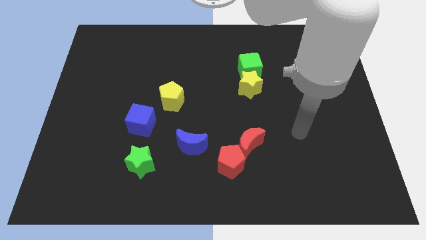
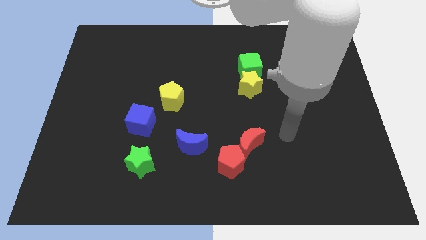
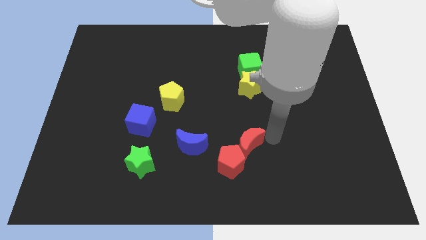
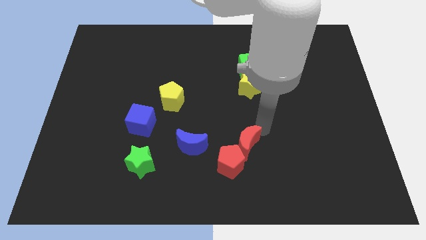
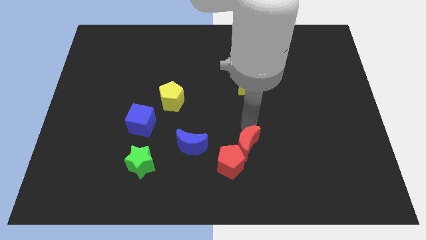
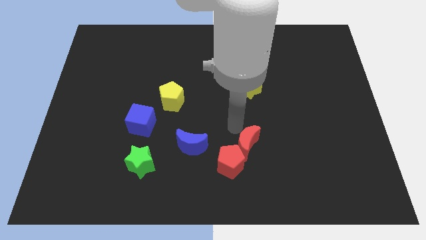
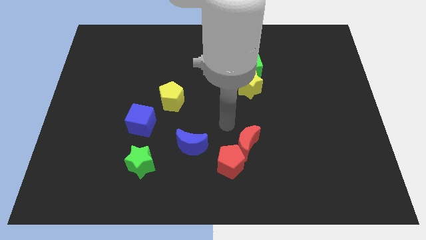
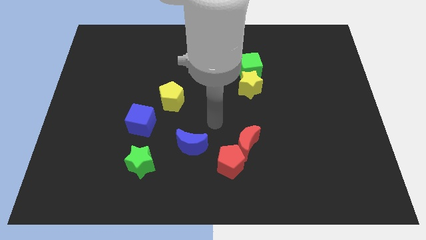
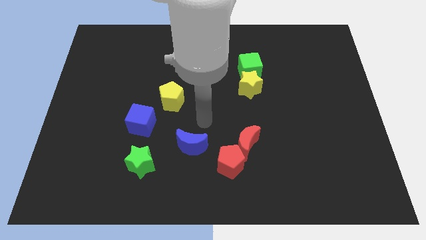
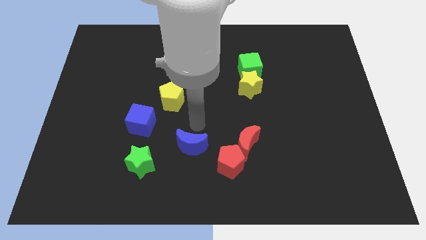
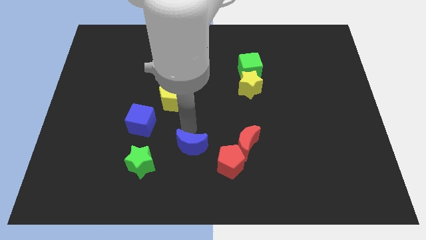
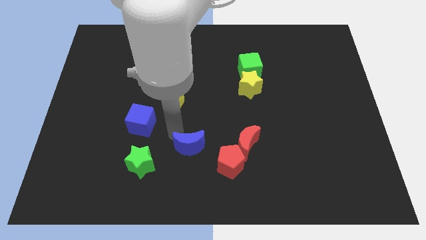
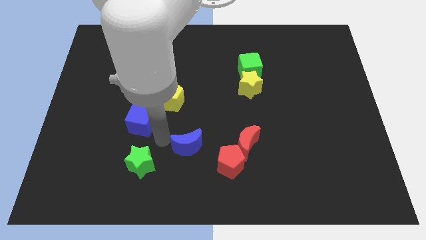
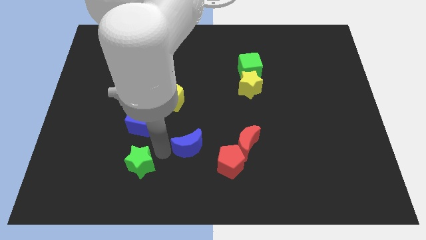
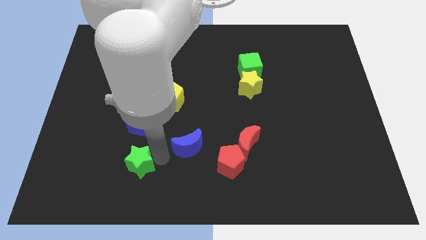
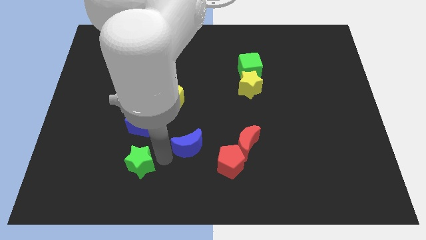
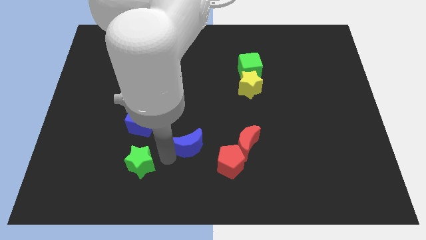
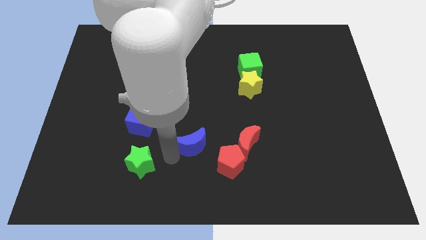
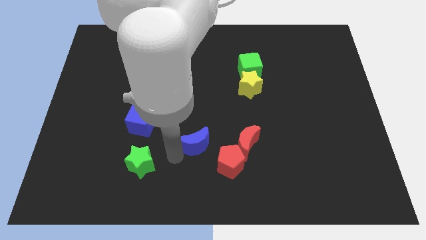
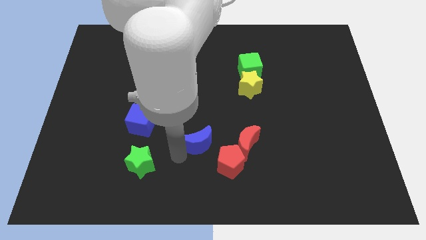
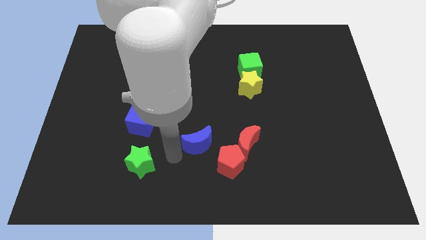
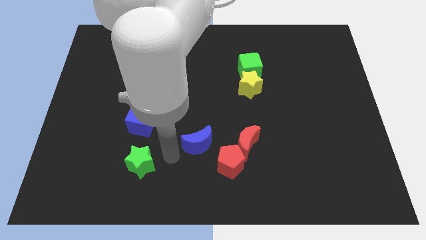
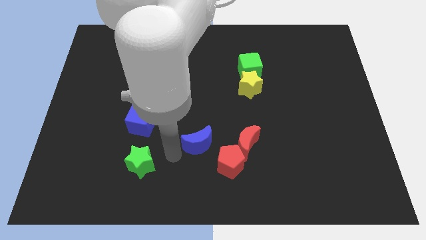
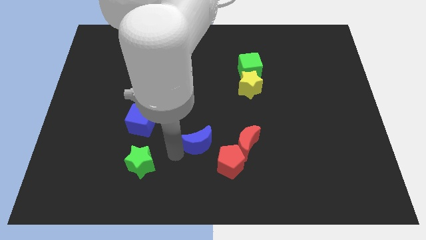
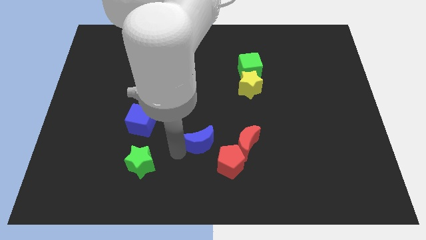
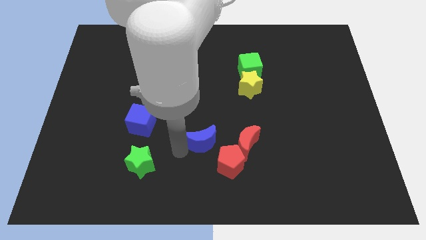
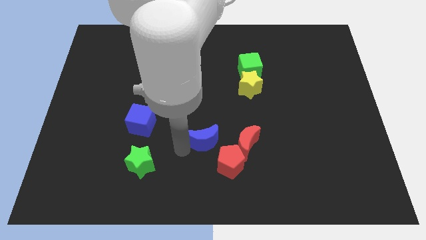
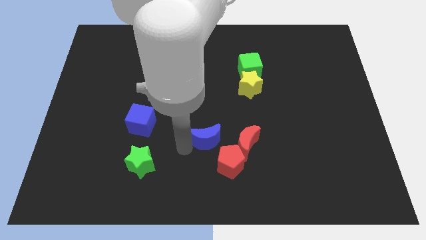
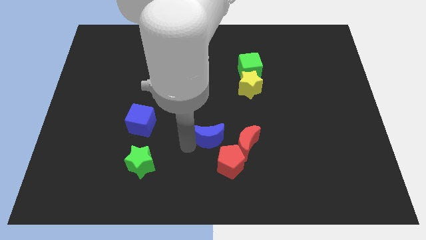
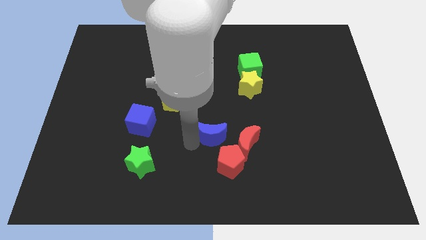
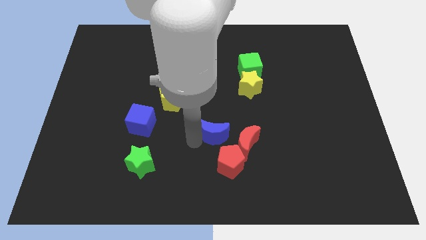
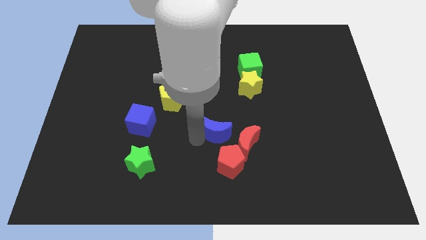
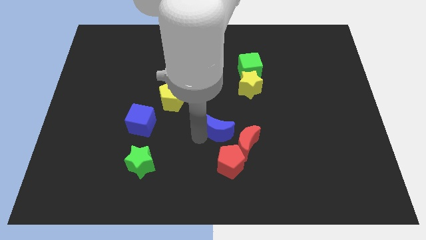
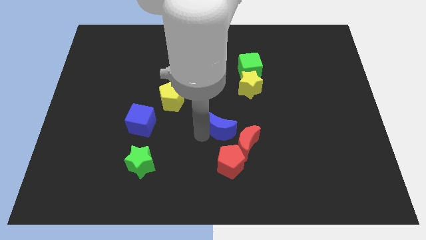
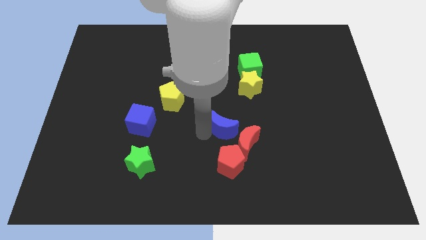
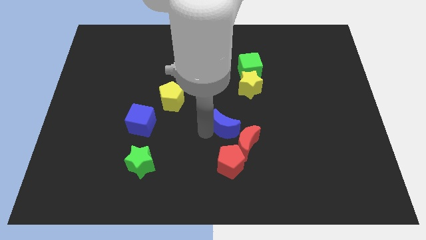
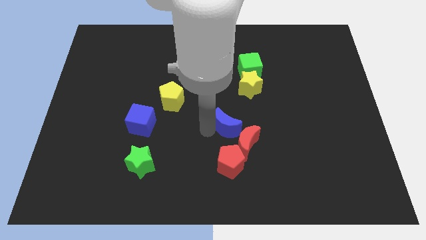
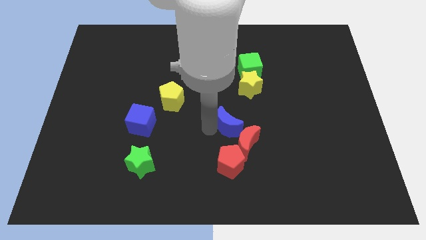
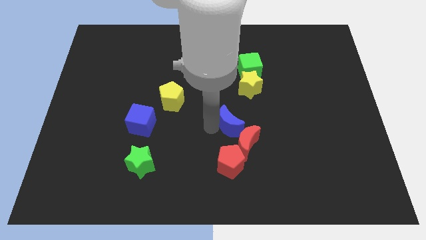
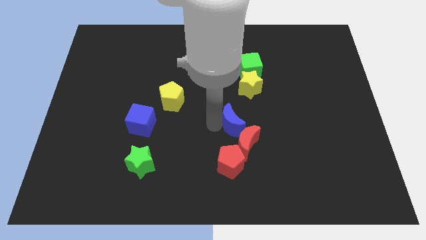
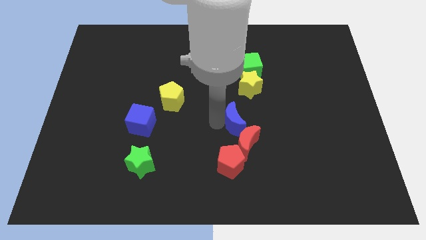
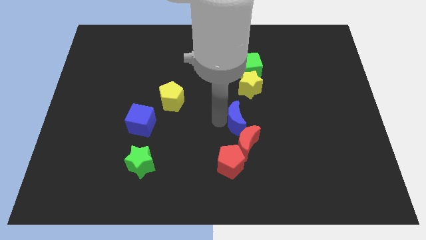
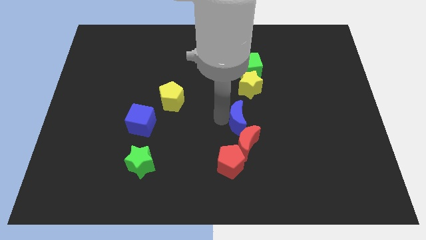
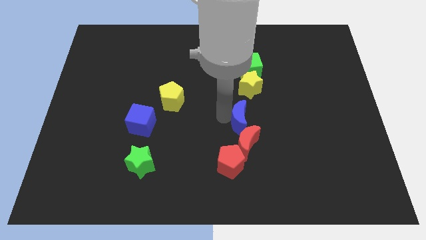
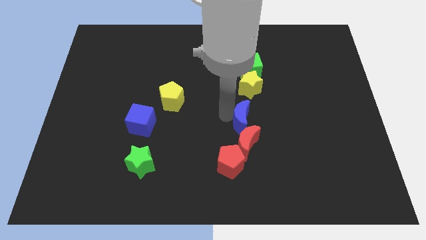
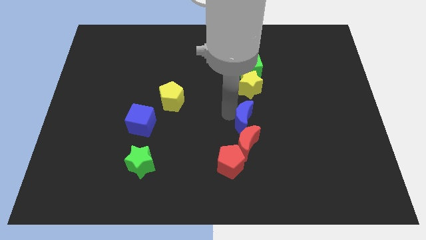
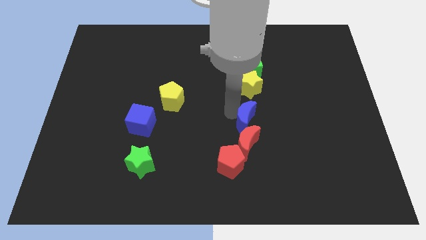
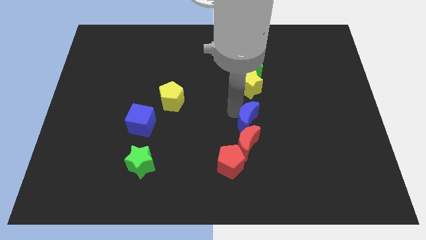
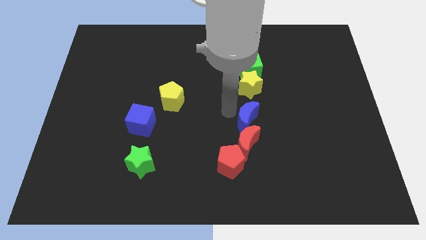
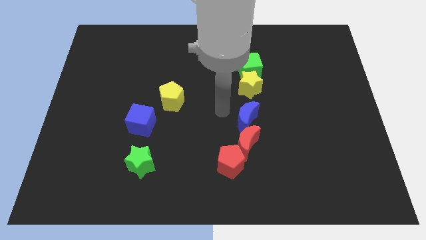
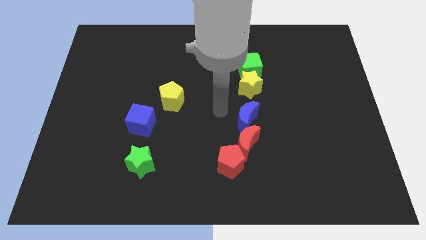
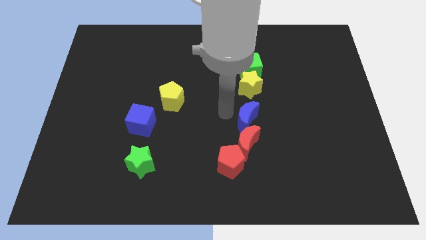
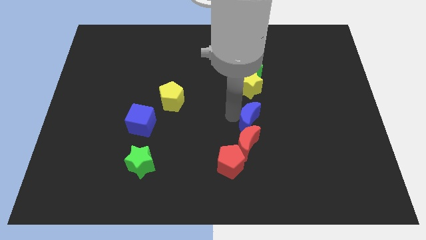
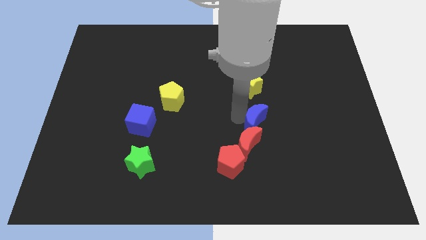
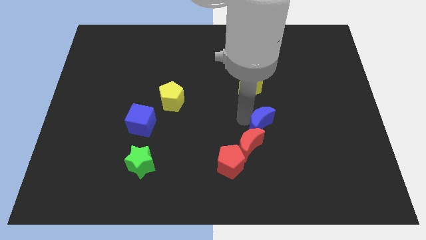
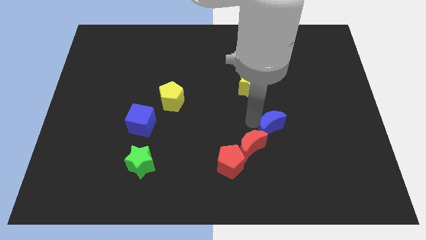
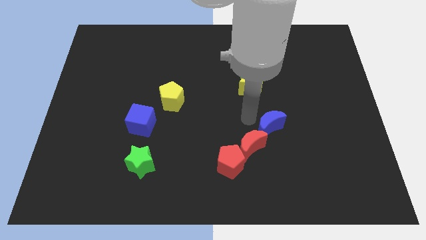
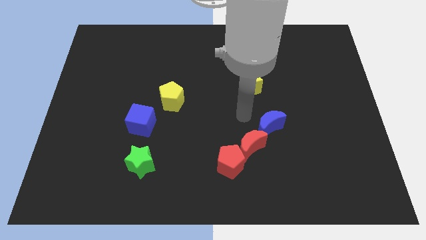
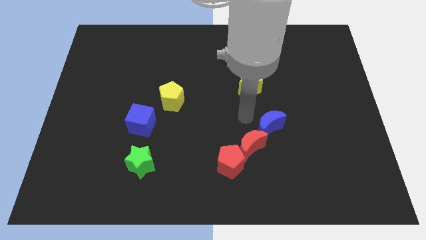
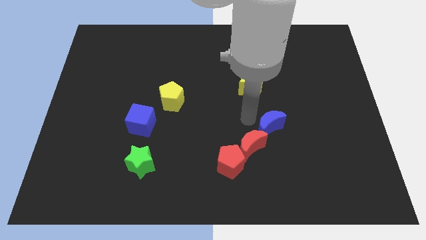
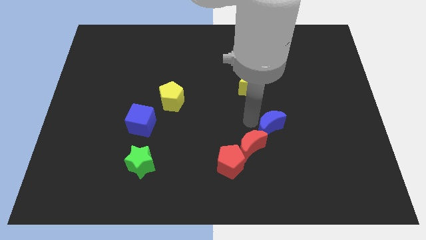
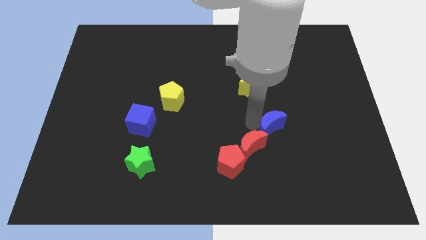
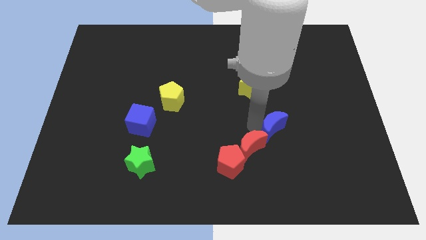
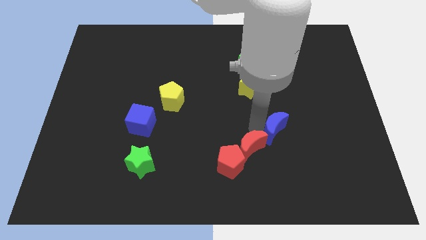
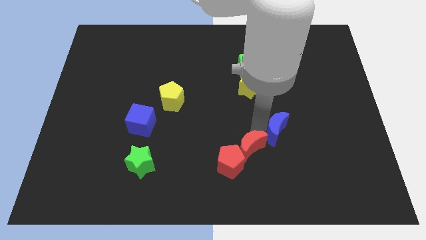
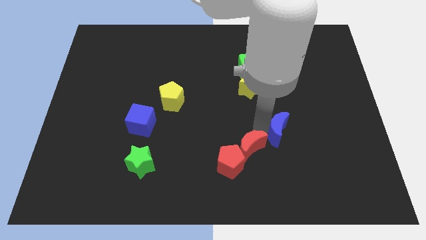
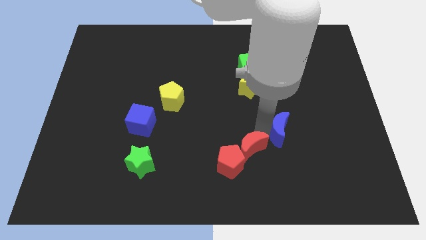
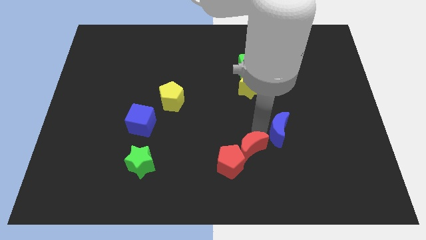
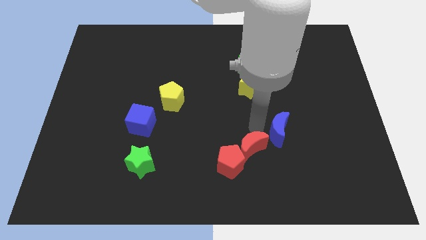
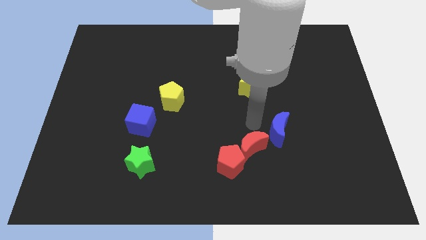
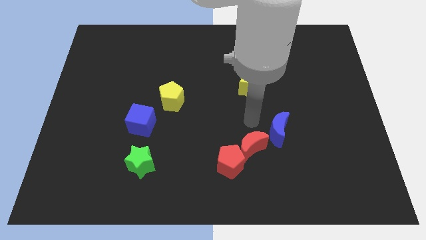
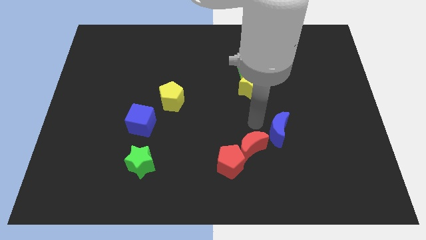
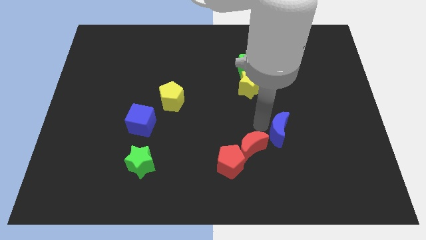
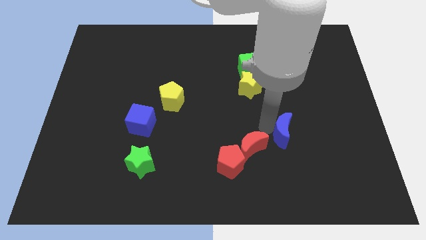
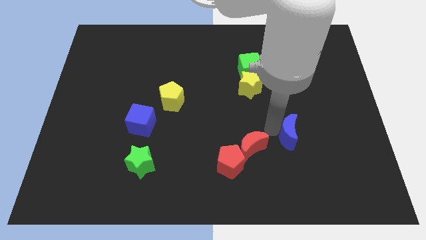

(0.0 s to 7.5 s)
move the blue moon to the right

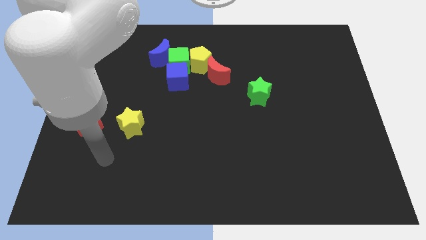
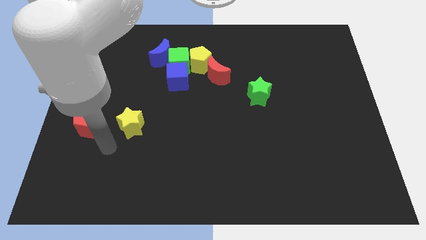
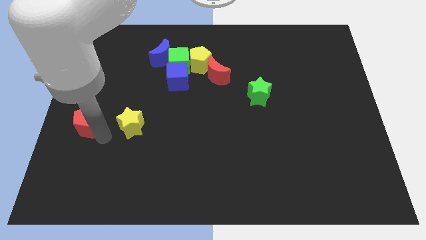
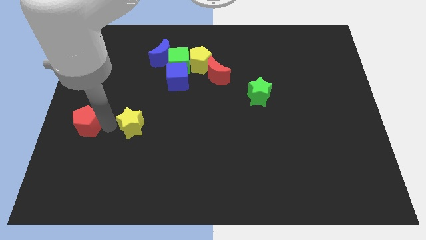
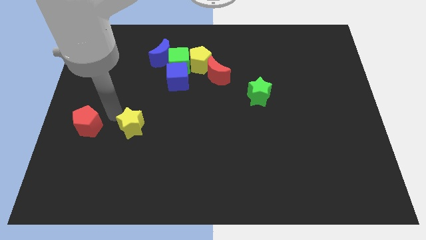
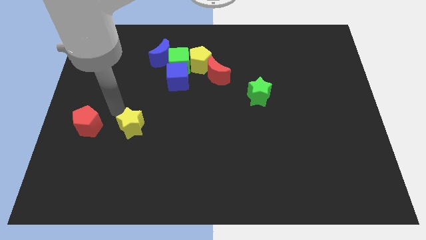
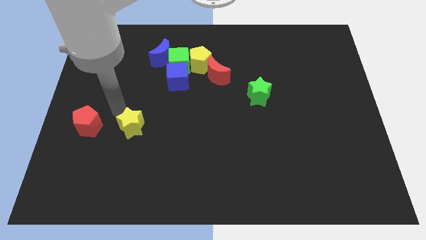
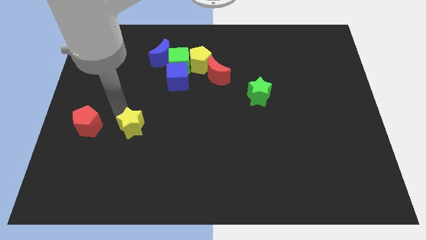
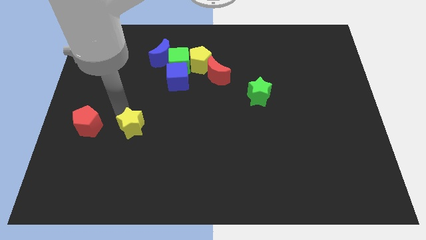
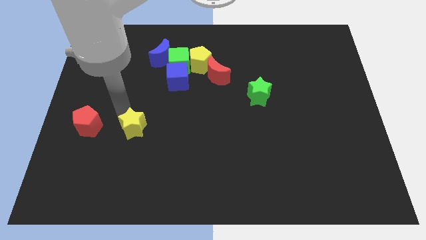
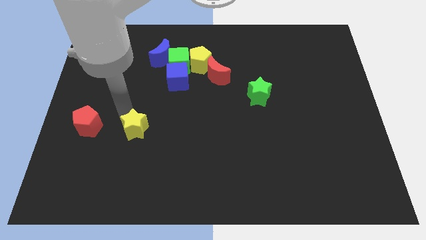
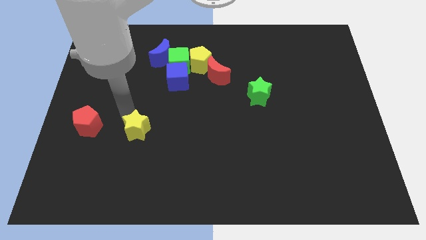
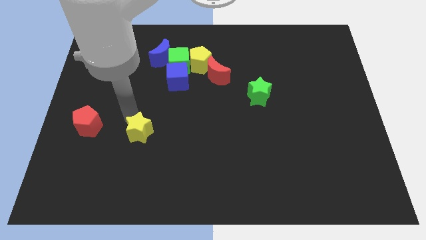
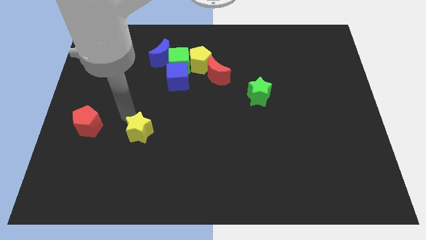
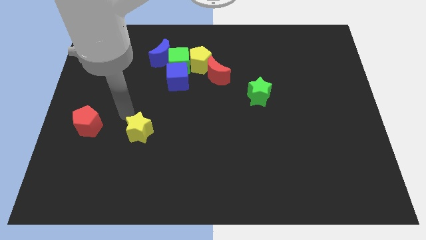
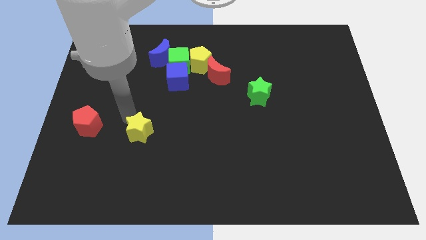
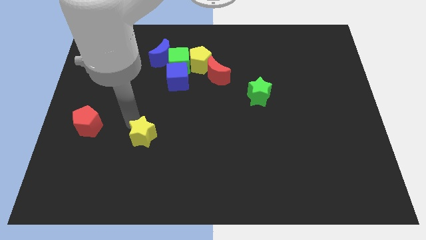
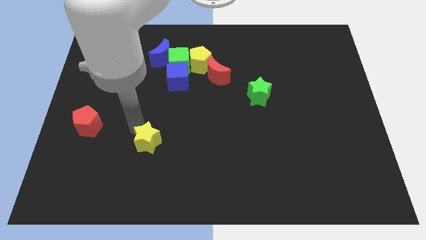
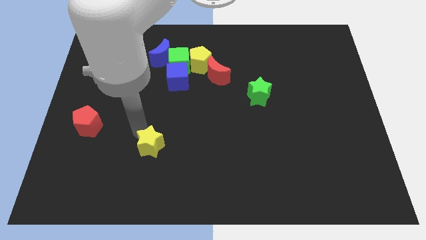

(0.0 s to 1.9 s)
push the yellow star somewhat down and then right
